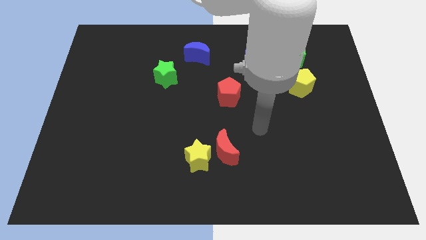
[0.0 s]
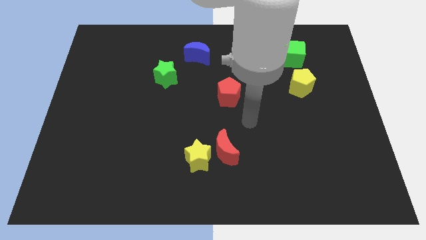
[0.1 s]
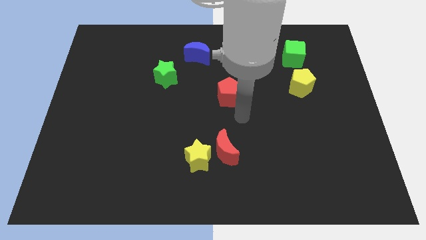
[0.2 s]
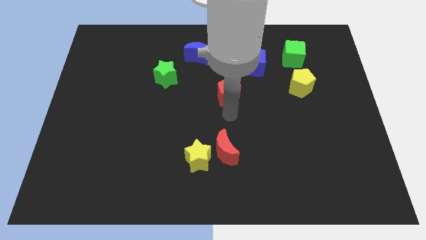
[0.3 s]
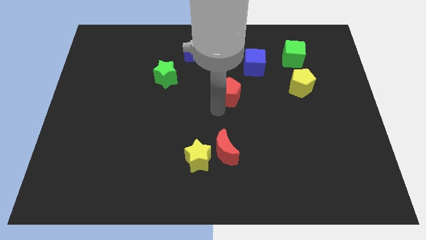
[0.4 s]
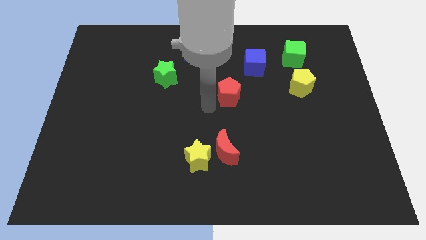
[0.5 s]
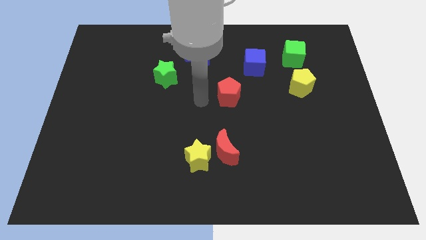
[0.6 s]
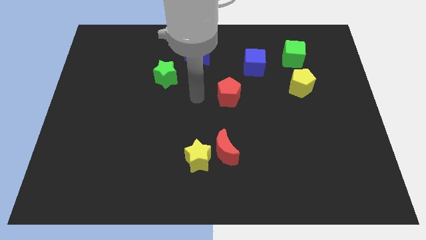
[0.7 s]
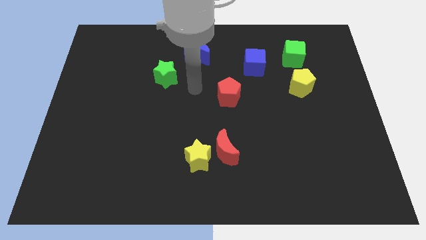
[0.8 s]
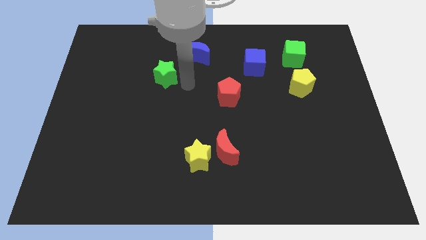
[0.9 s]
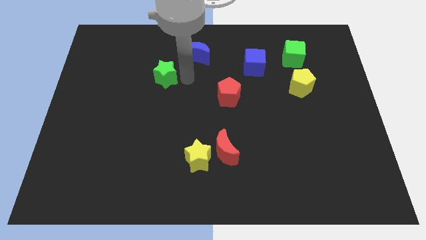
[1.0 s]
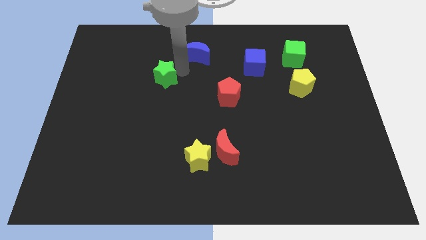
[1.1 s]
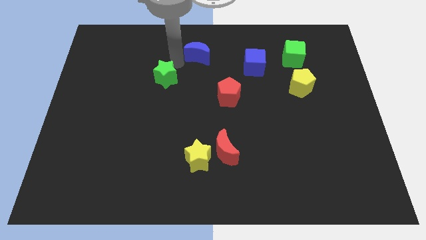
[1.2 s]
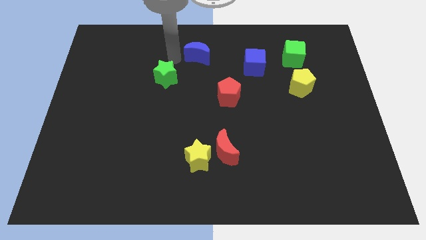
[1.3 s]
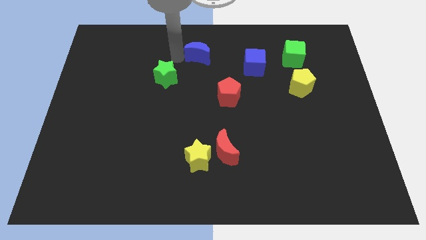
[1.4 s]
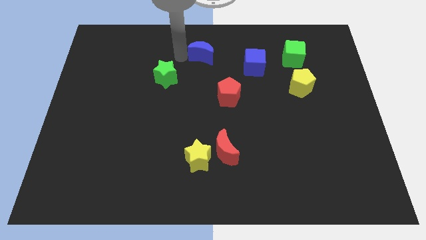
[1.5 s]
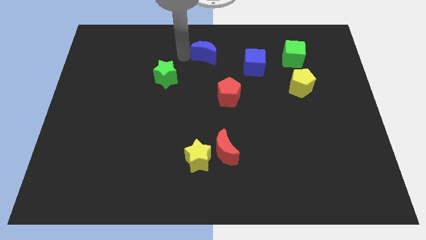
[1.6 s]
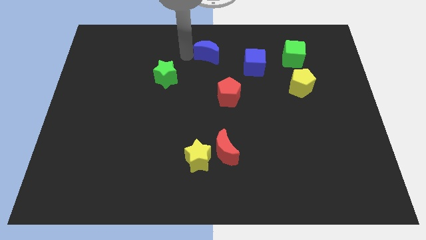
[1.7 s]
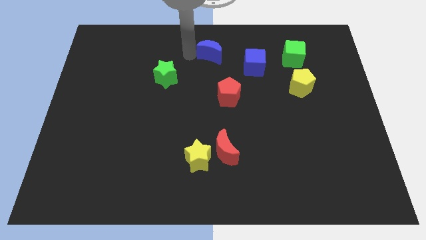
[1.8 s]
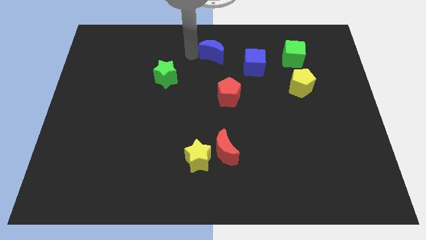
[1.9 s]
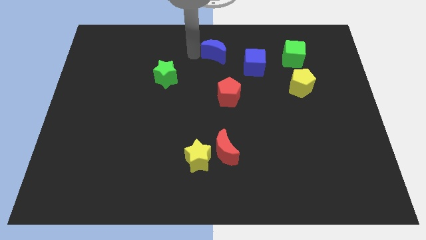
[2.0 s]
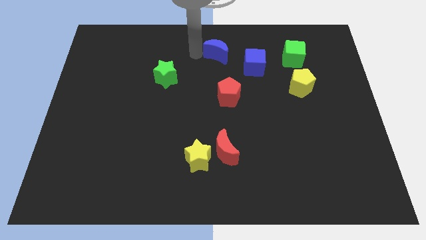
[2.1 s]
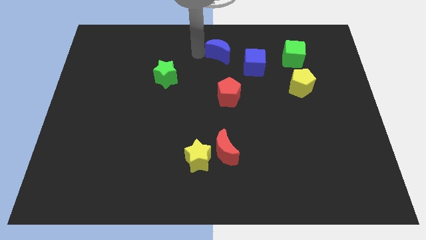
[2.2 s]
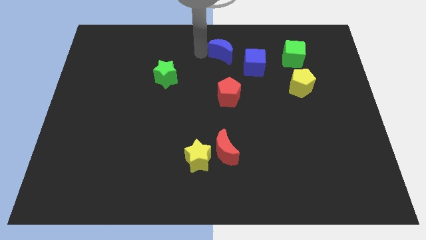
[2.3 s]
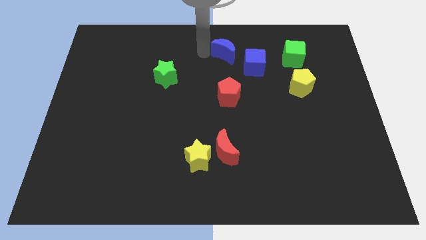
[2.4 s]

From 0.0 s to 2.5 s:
slide the blue moon somewhat to the right

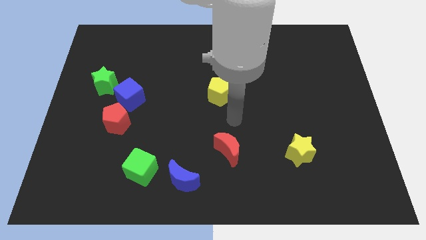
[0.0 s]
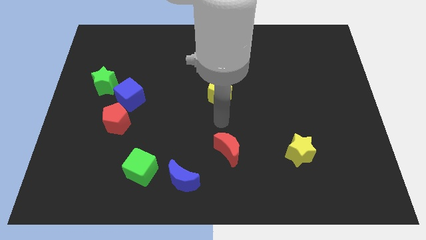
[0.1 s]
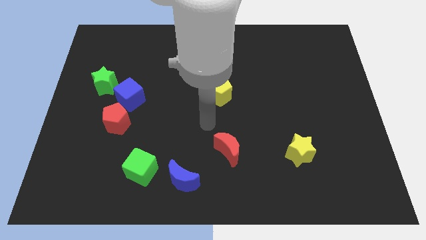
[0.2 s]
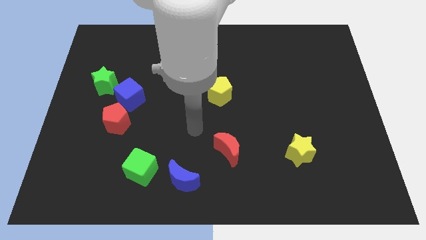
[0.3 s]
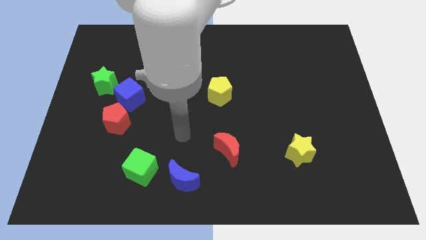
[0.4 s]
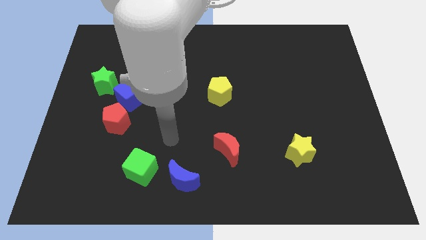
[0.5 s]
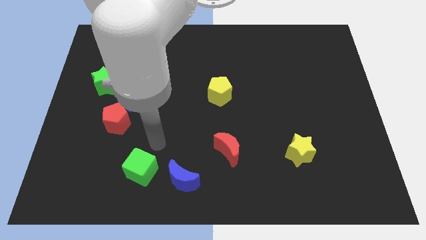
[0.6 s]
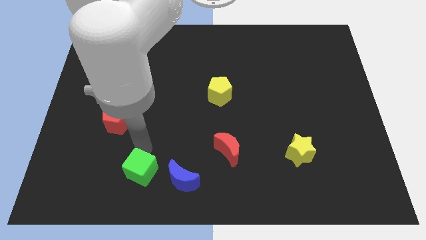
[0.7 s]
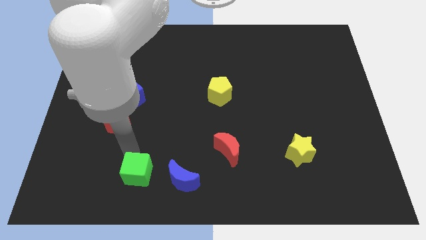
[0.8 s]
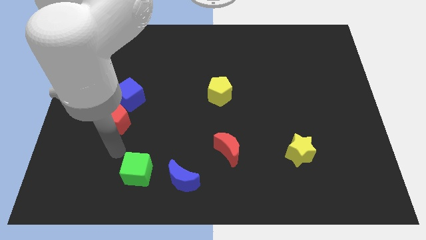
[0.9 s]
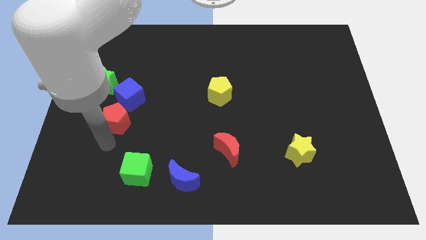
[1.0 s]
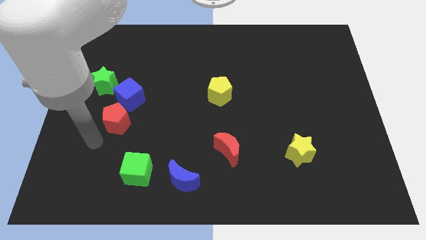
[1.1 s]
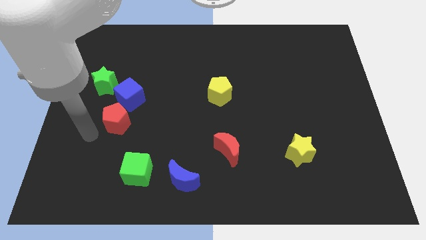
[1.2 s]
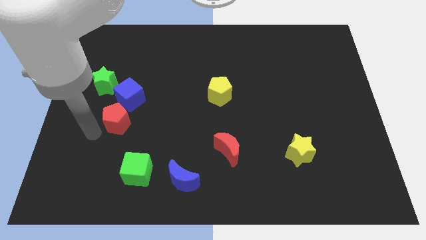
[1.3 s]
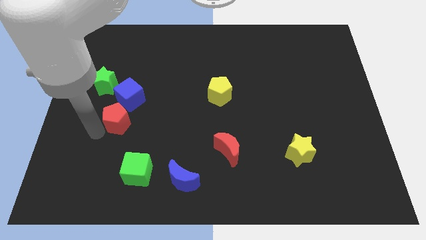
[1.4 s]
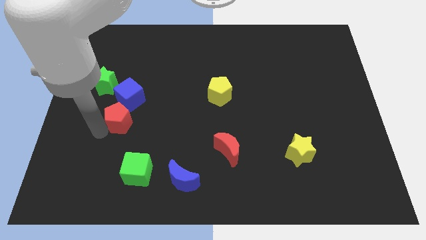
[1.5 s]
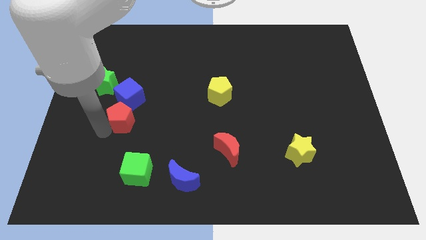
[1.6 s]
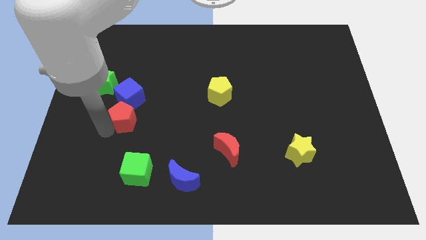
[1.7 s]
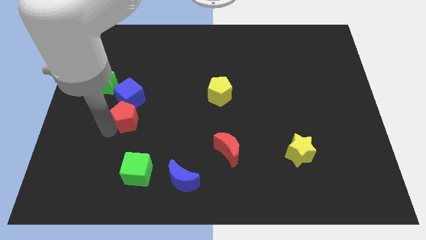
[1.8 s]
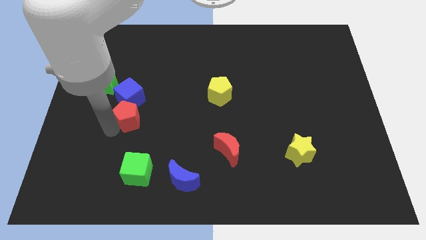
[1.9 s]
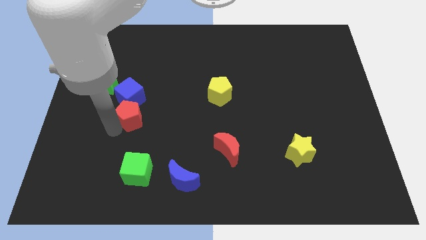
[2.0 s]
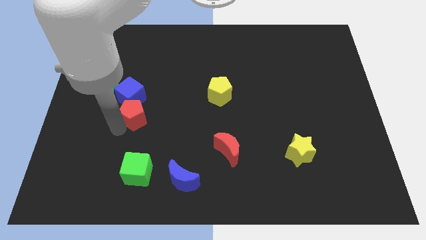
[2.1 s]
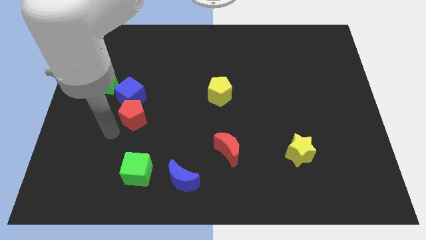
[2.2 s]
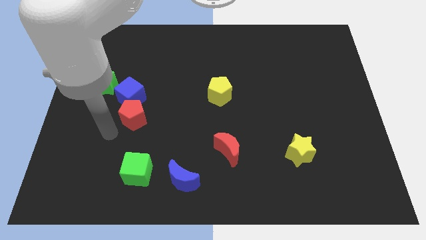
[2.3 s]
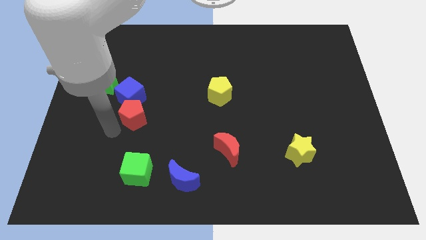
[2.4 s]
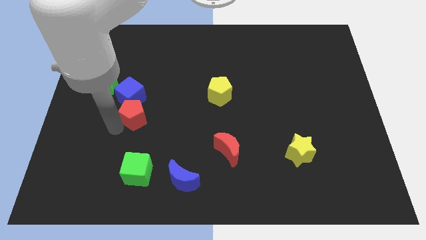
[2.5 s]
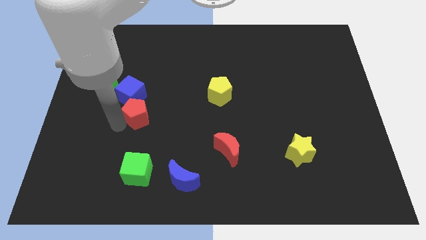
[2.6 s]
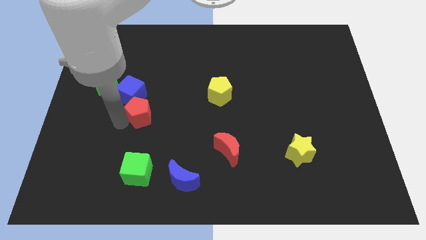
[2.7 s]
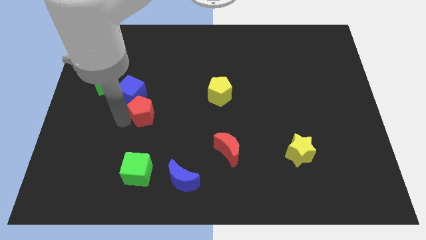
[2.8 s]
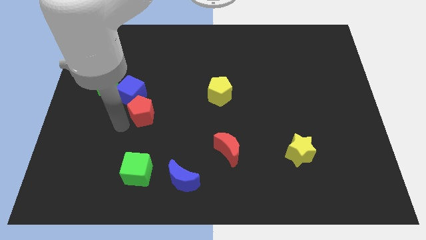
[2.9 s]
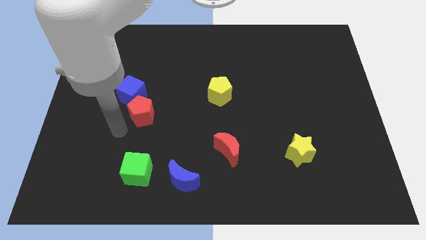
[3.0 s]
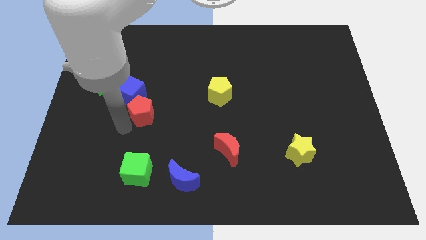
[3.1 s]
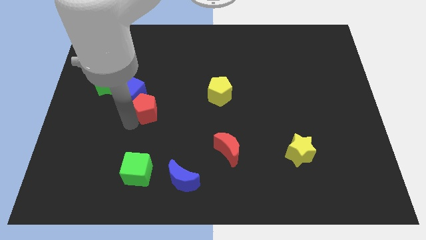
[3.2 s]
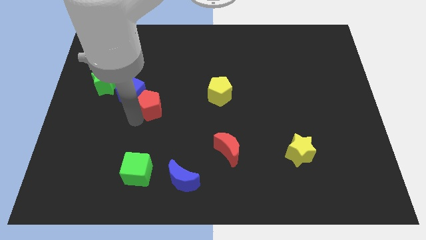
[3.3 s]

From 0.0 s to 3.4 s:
push the red pentagon somewhat upwards and to the right

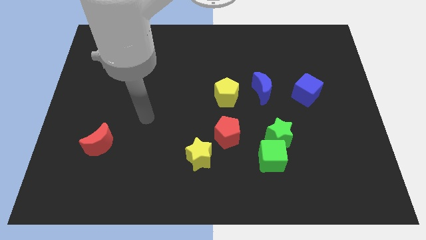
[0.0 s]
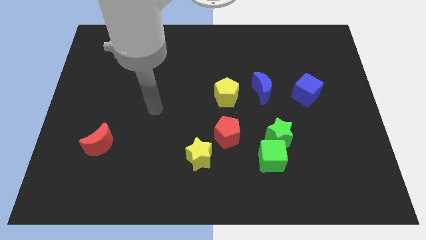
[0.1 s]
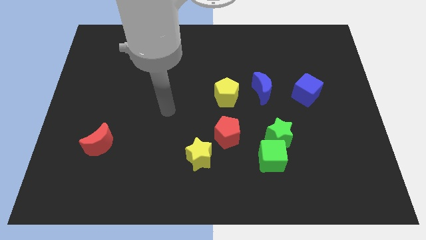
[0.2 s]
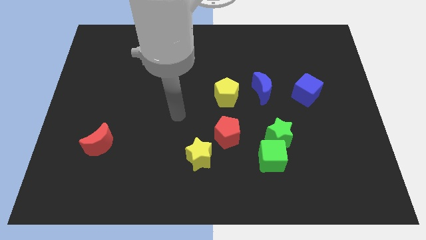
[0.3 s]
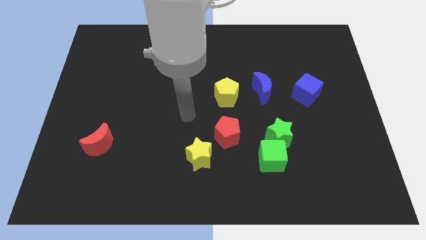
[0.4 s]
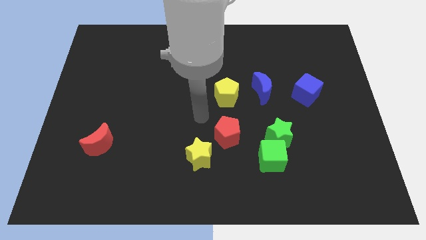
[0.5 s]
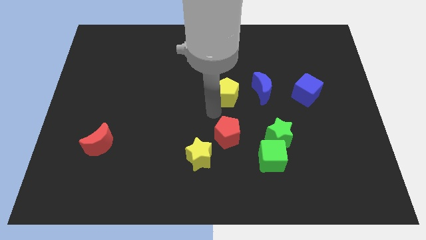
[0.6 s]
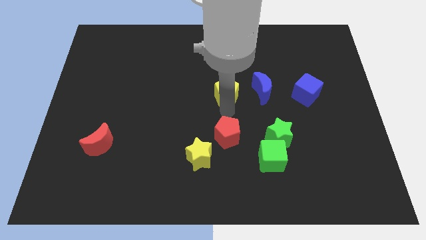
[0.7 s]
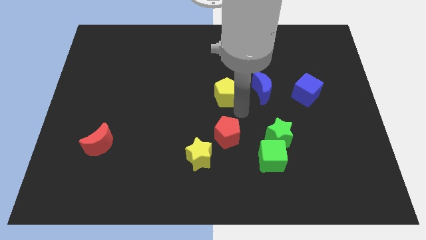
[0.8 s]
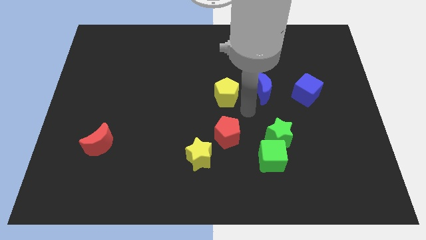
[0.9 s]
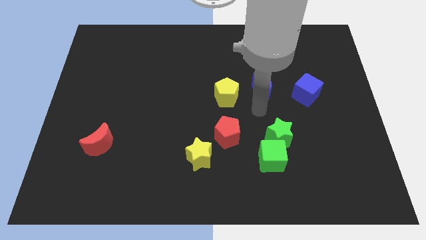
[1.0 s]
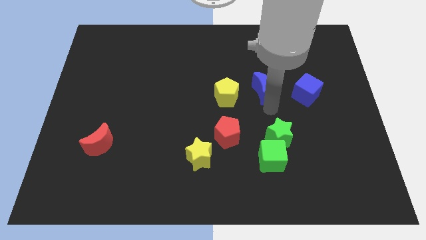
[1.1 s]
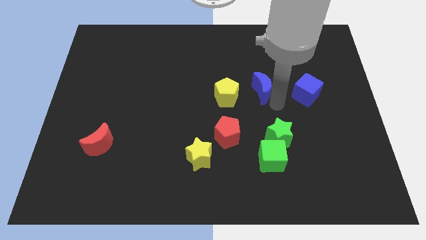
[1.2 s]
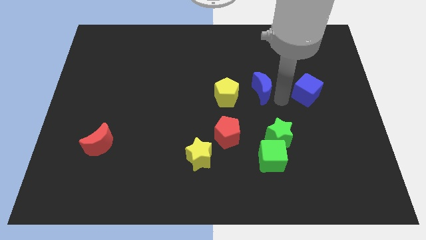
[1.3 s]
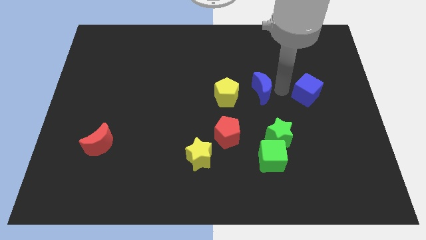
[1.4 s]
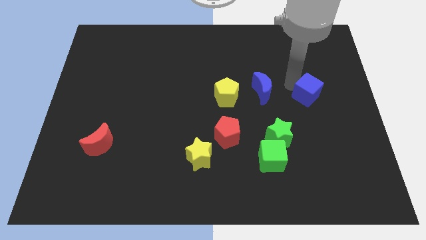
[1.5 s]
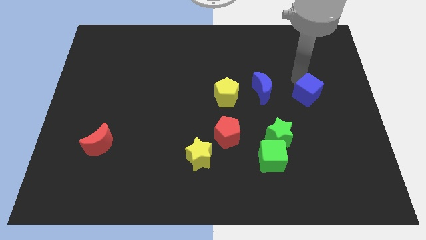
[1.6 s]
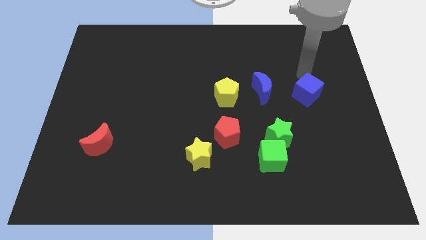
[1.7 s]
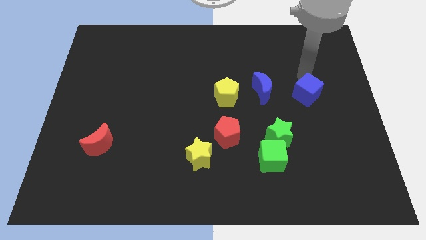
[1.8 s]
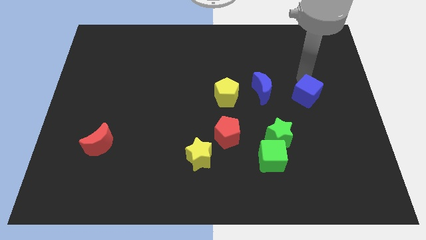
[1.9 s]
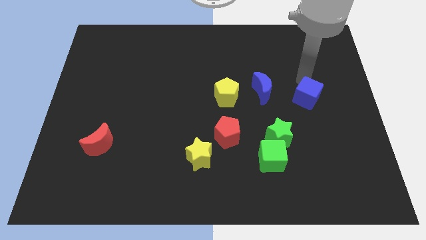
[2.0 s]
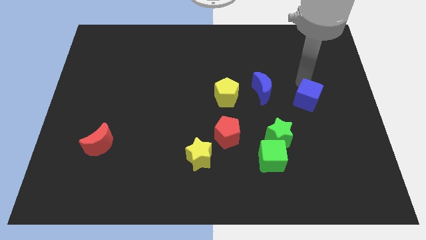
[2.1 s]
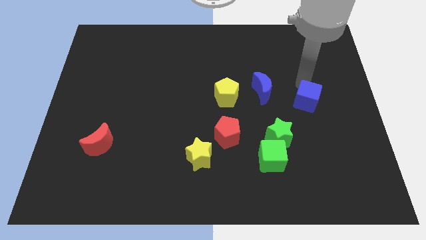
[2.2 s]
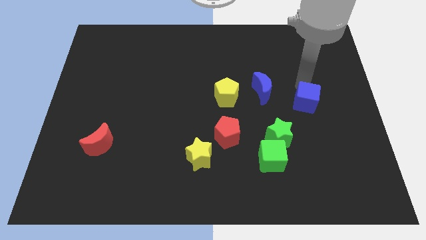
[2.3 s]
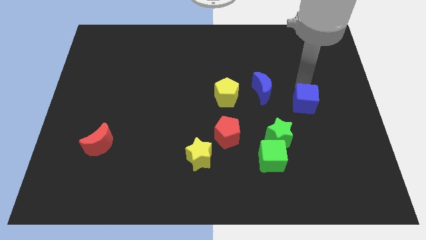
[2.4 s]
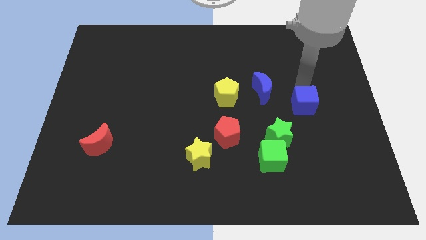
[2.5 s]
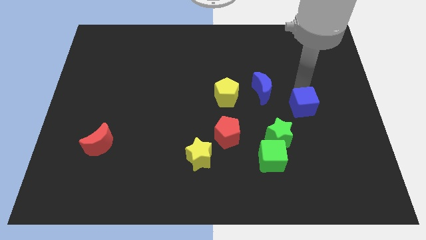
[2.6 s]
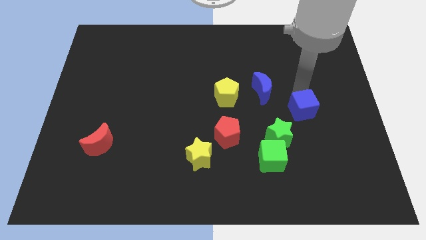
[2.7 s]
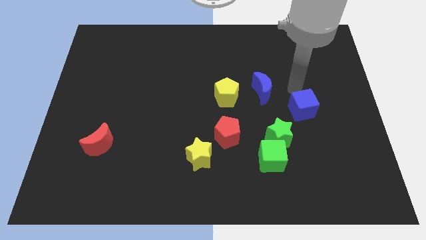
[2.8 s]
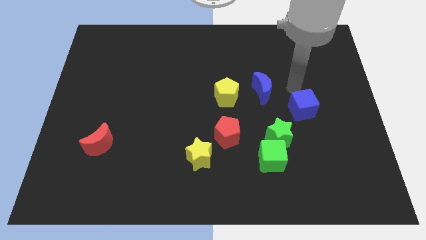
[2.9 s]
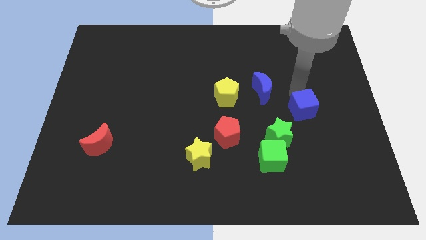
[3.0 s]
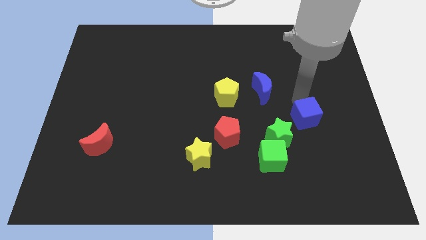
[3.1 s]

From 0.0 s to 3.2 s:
slightly push the blue cube down
